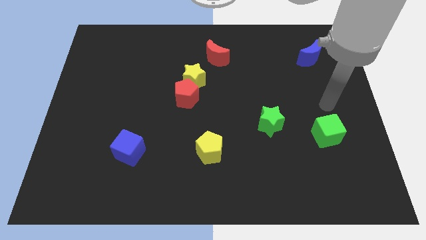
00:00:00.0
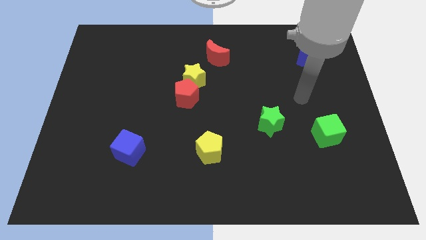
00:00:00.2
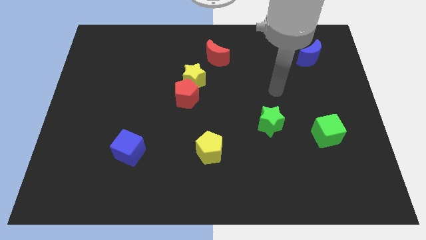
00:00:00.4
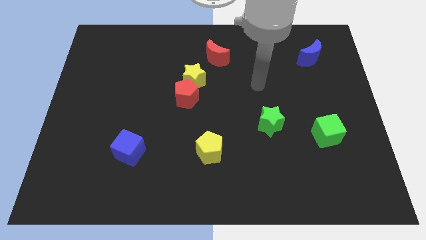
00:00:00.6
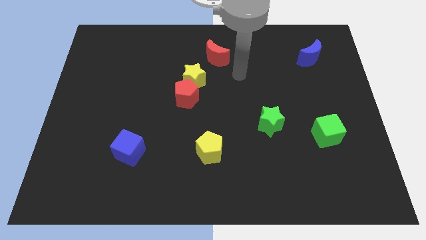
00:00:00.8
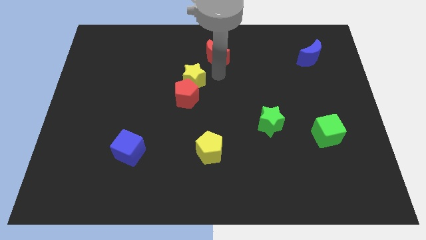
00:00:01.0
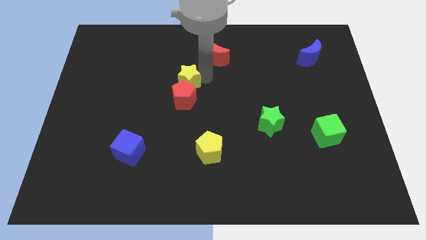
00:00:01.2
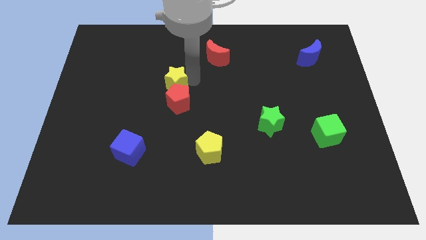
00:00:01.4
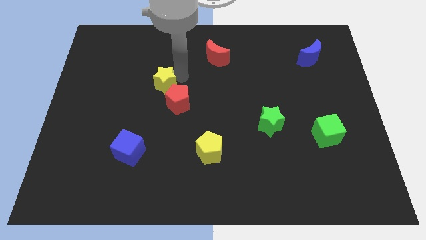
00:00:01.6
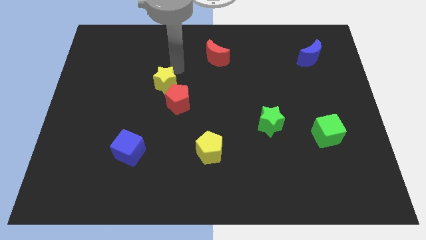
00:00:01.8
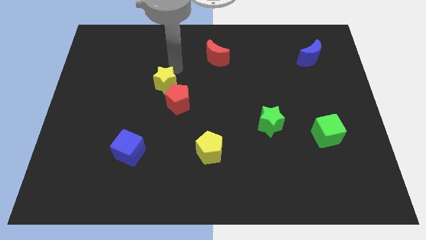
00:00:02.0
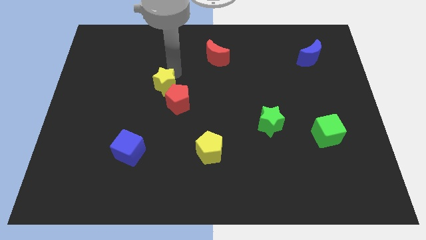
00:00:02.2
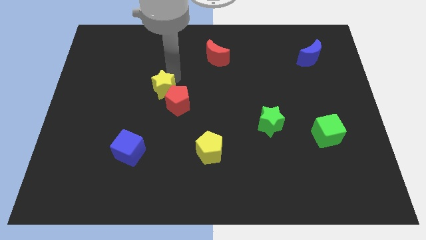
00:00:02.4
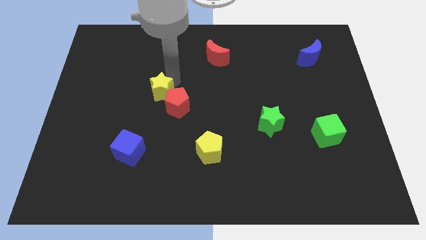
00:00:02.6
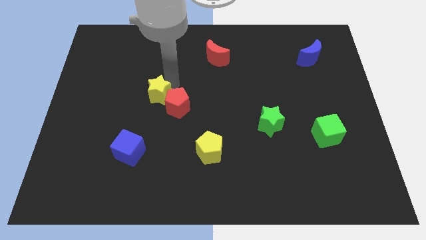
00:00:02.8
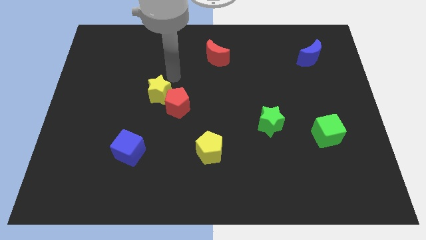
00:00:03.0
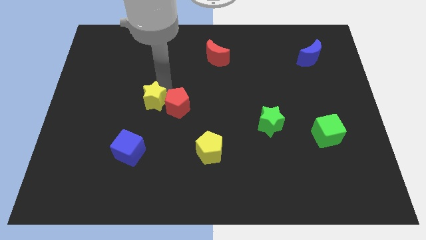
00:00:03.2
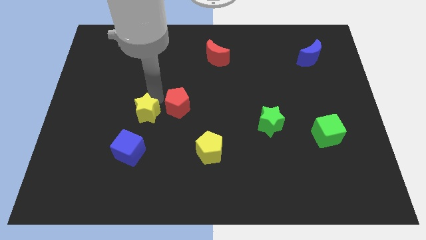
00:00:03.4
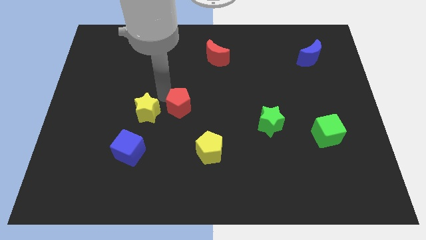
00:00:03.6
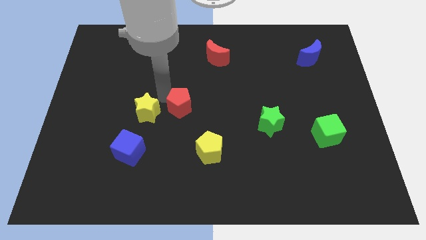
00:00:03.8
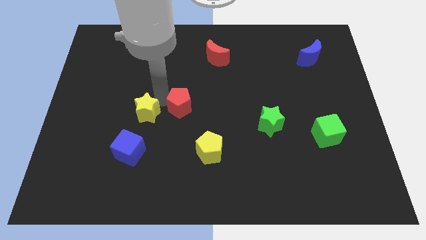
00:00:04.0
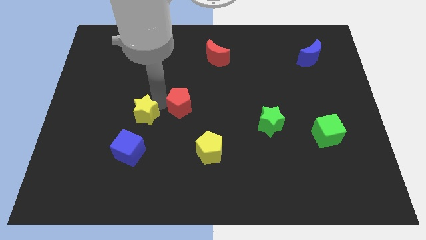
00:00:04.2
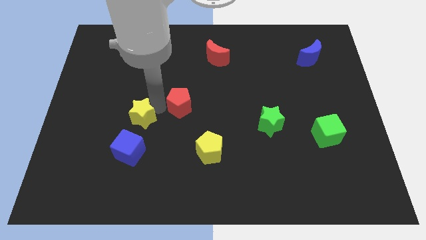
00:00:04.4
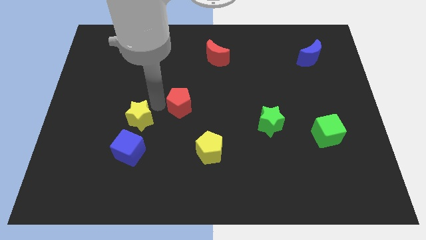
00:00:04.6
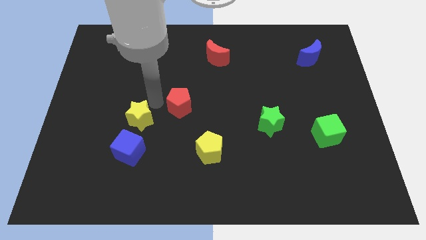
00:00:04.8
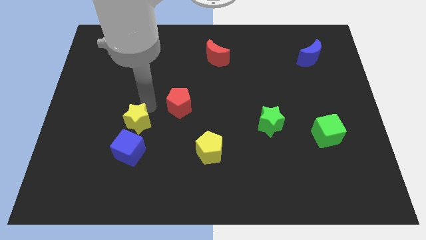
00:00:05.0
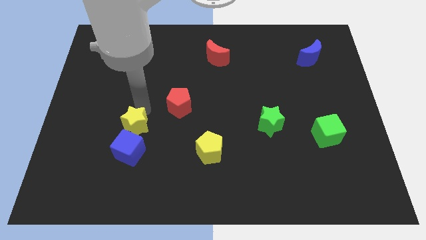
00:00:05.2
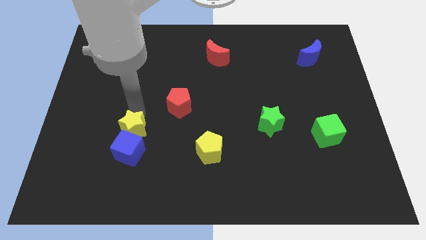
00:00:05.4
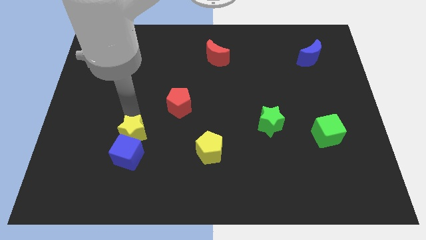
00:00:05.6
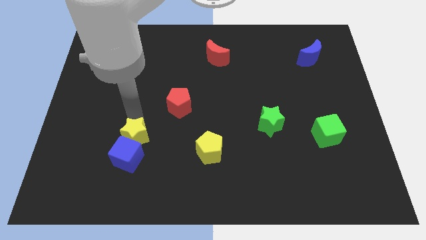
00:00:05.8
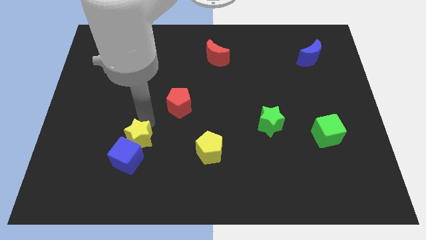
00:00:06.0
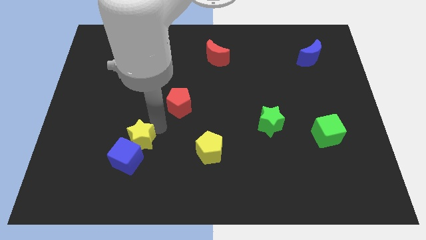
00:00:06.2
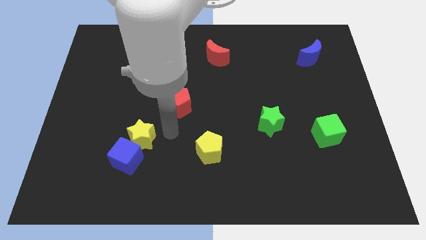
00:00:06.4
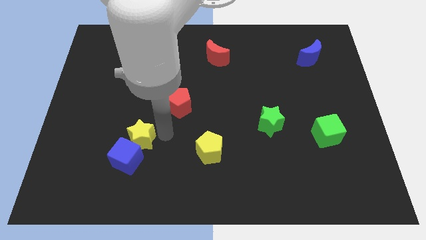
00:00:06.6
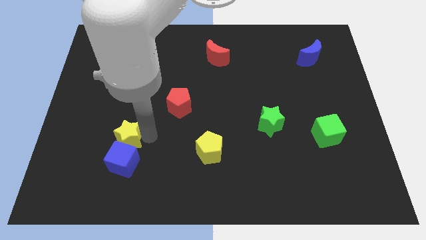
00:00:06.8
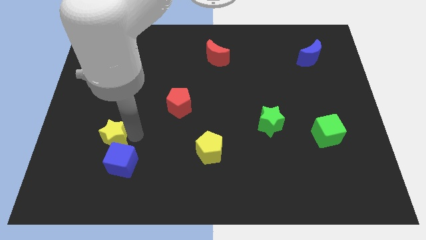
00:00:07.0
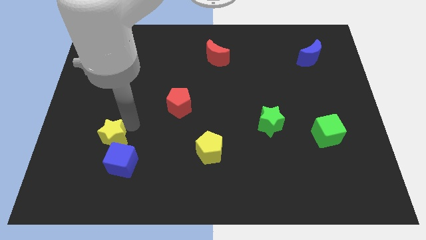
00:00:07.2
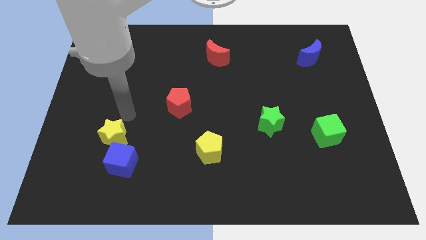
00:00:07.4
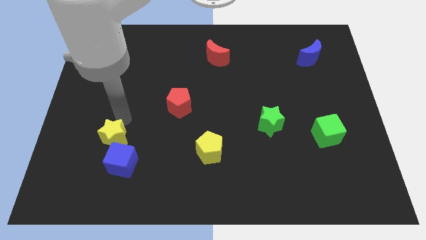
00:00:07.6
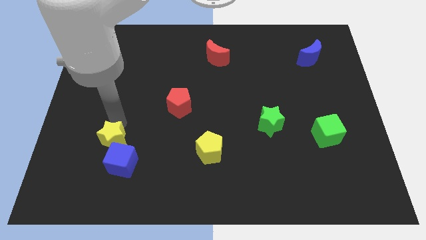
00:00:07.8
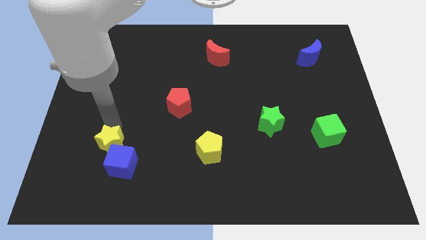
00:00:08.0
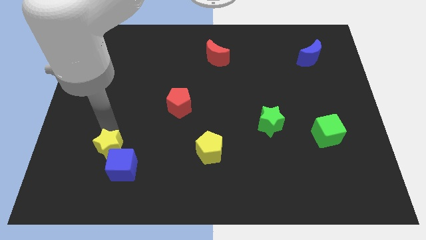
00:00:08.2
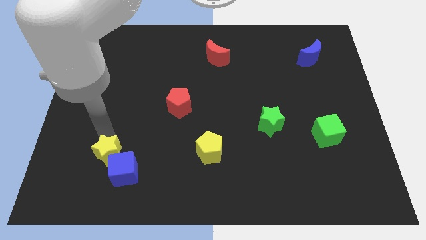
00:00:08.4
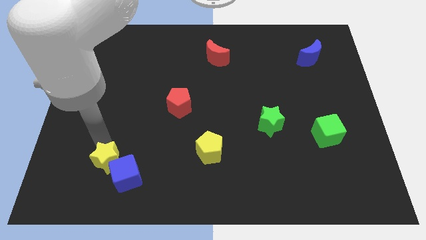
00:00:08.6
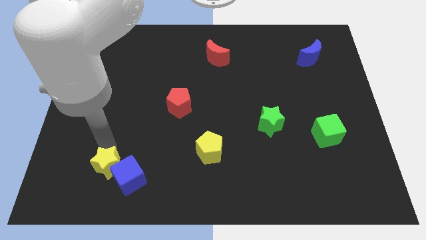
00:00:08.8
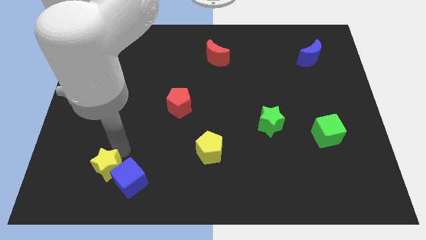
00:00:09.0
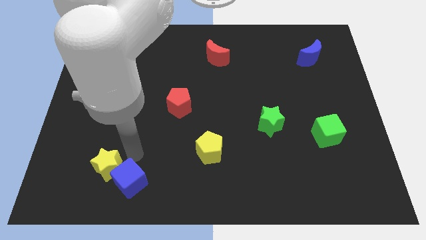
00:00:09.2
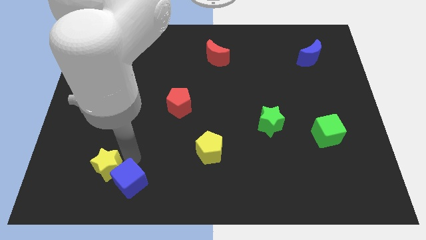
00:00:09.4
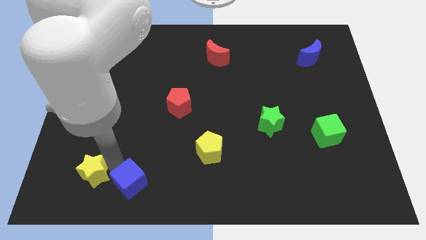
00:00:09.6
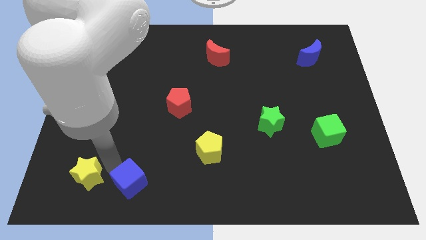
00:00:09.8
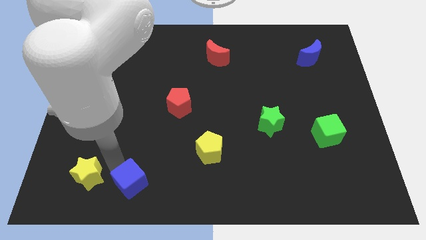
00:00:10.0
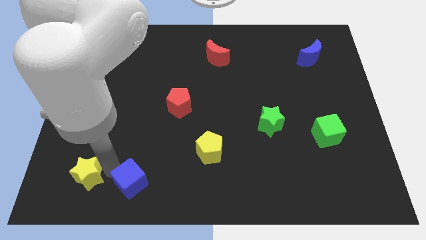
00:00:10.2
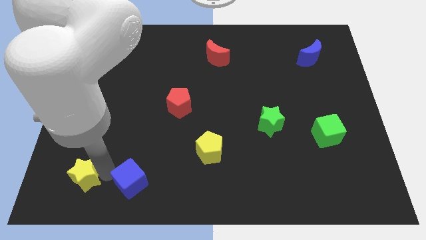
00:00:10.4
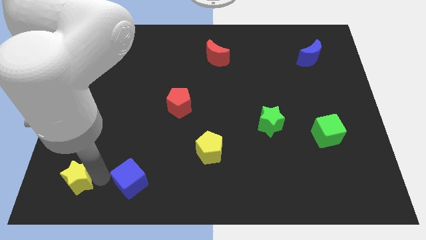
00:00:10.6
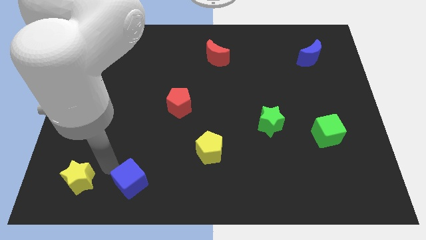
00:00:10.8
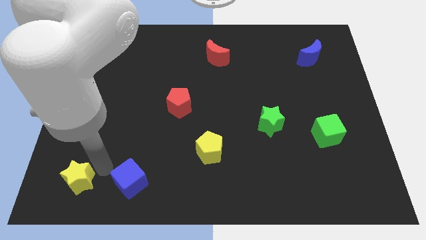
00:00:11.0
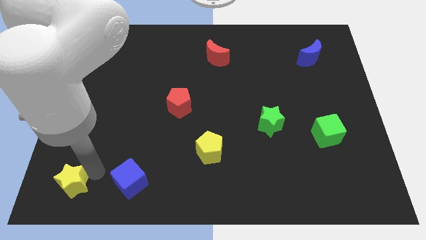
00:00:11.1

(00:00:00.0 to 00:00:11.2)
push the yellow star to the bottom left of the board

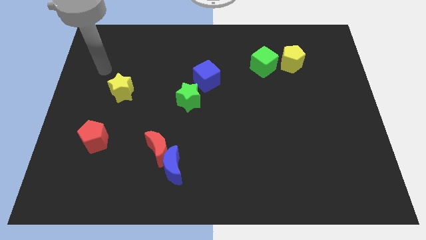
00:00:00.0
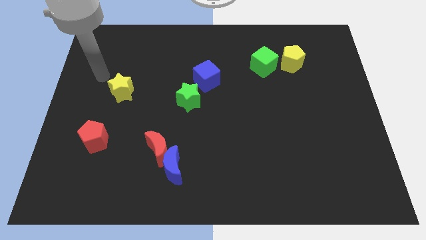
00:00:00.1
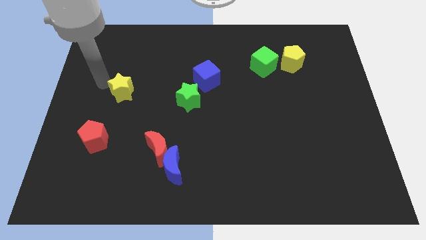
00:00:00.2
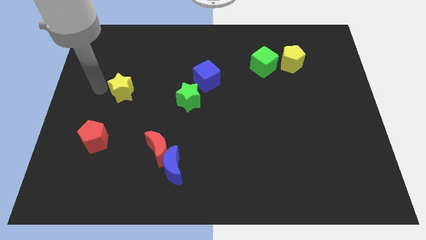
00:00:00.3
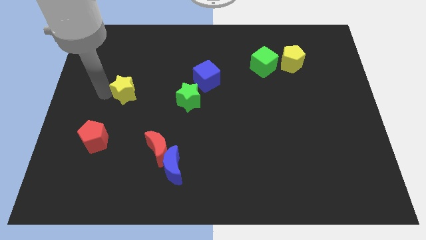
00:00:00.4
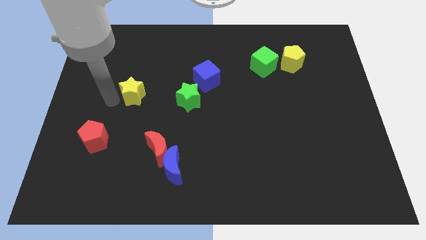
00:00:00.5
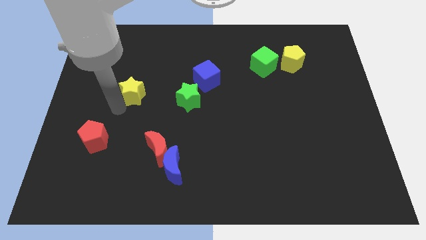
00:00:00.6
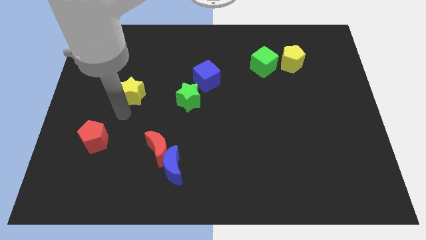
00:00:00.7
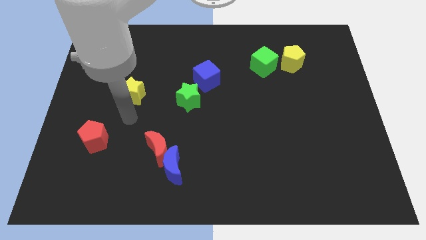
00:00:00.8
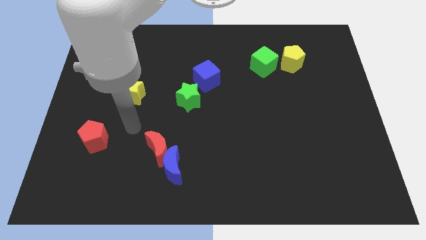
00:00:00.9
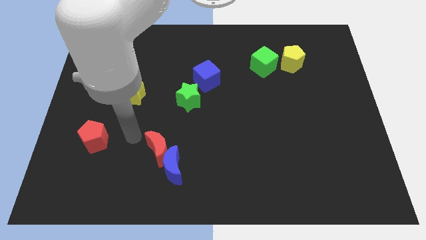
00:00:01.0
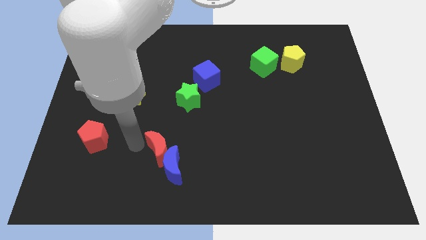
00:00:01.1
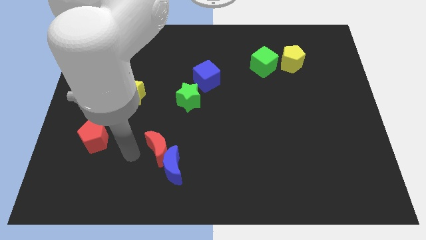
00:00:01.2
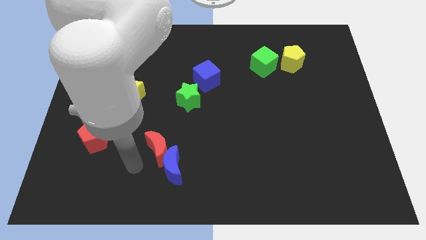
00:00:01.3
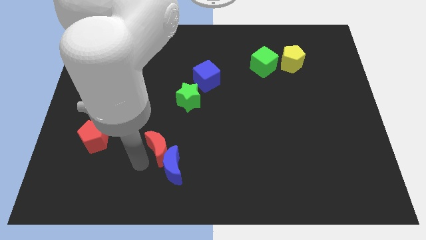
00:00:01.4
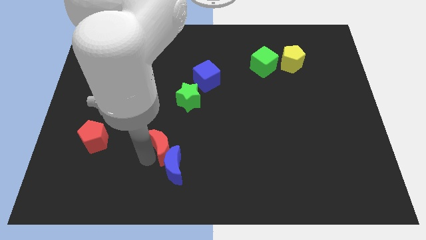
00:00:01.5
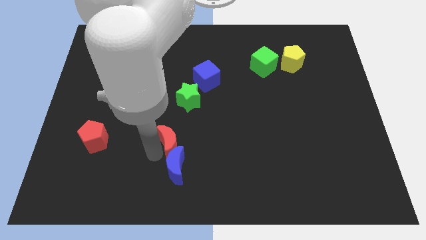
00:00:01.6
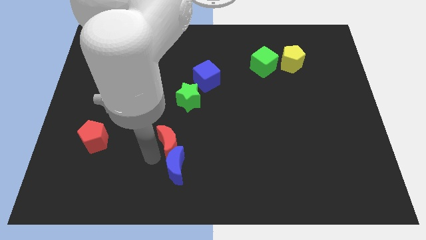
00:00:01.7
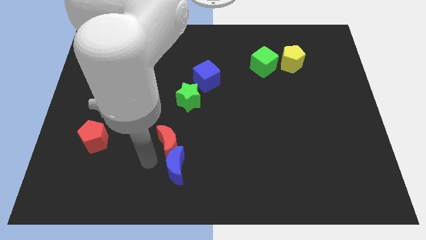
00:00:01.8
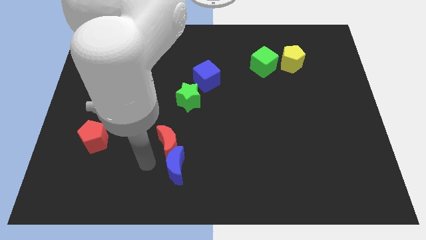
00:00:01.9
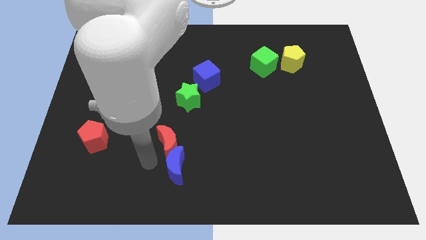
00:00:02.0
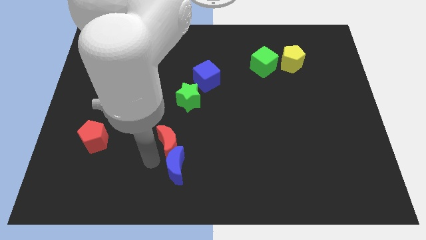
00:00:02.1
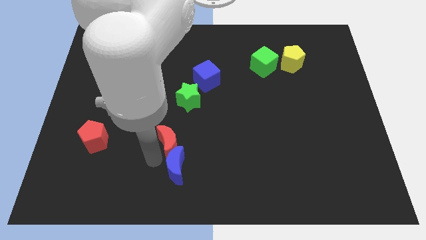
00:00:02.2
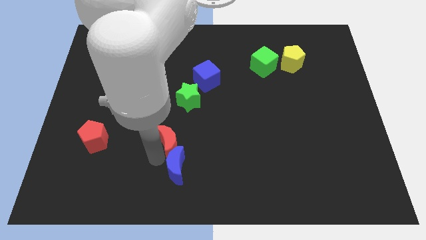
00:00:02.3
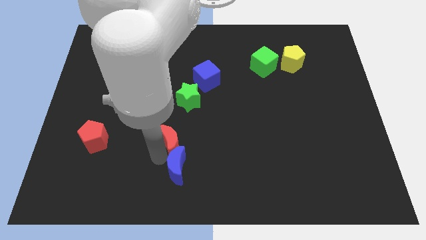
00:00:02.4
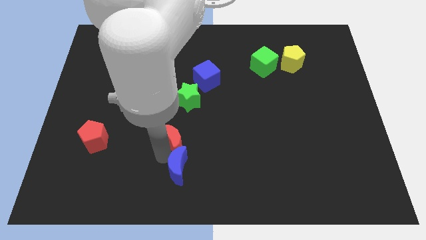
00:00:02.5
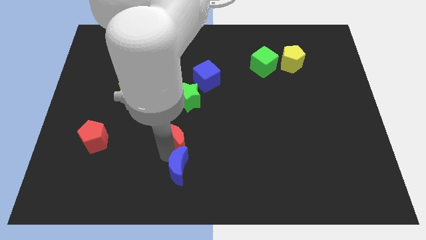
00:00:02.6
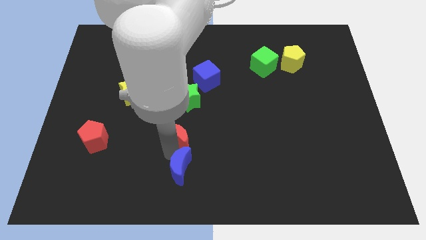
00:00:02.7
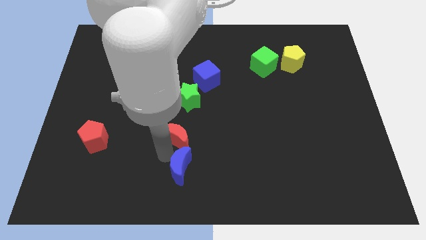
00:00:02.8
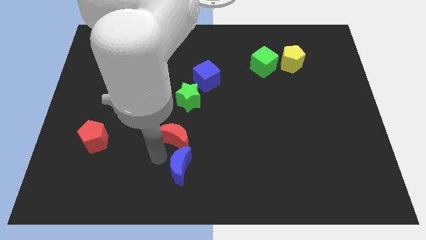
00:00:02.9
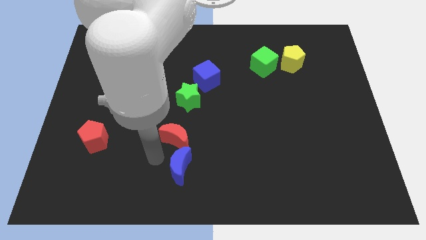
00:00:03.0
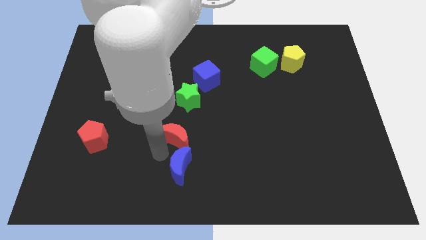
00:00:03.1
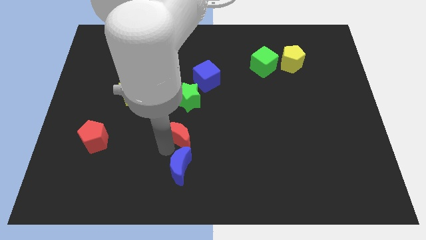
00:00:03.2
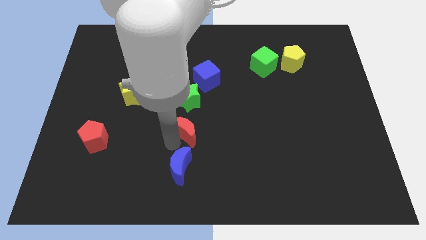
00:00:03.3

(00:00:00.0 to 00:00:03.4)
slide the red moon to the middle
